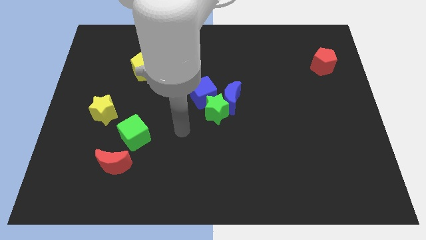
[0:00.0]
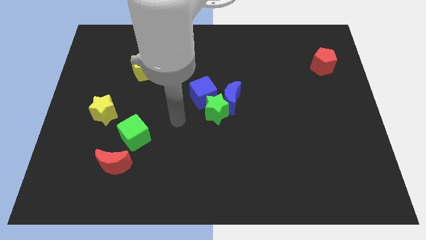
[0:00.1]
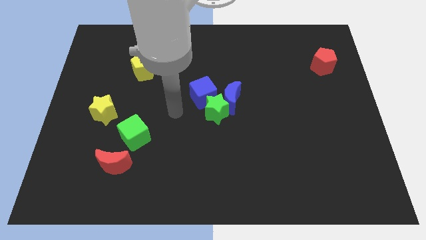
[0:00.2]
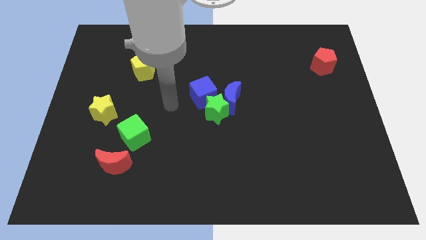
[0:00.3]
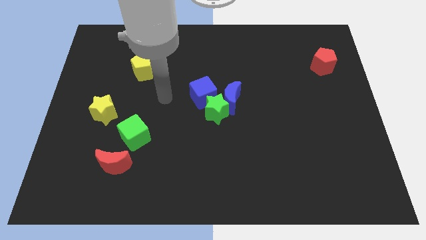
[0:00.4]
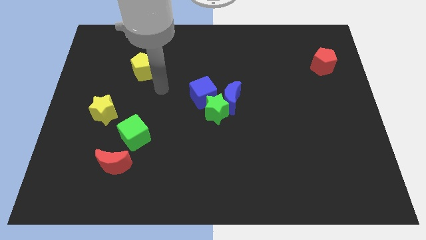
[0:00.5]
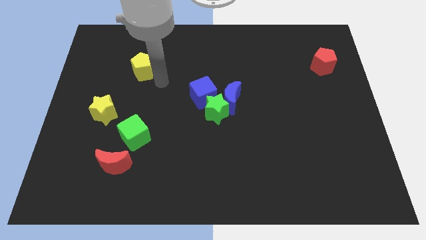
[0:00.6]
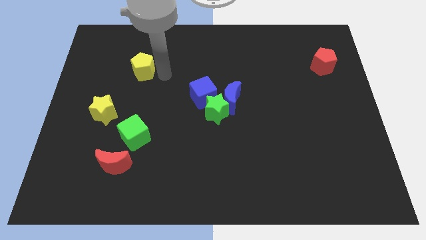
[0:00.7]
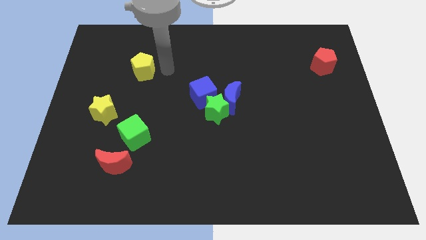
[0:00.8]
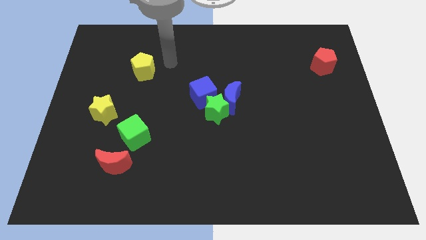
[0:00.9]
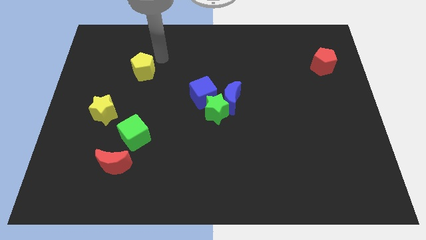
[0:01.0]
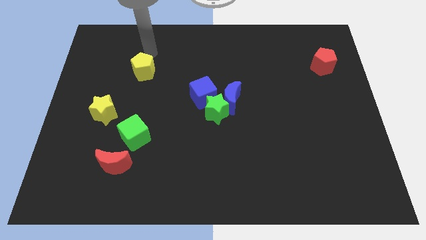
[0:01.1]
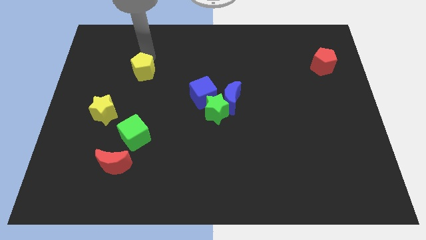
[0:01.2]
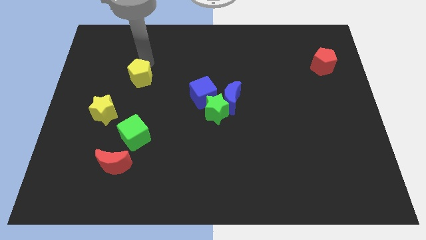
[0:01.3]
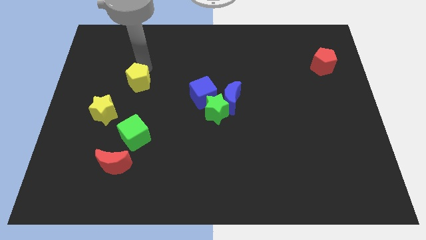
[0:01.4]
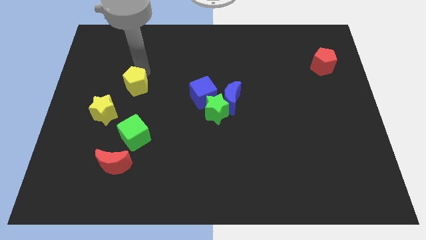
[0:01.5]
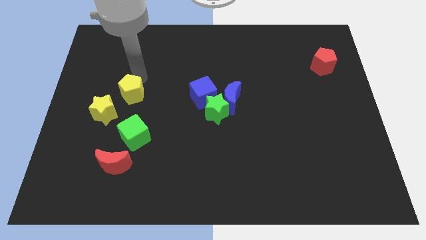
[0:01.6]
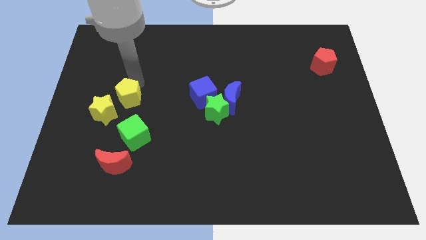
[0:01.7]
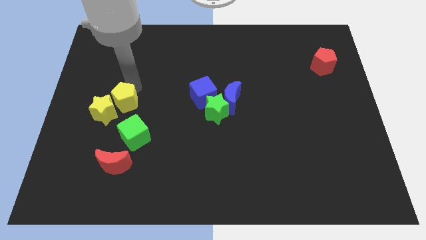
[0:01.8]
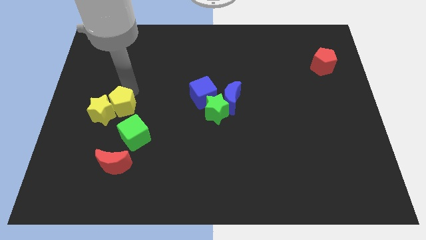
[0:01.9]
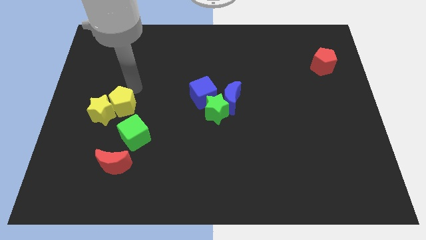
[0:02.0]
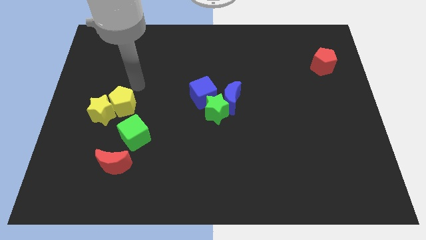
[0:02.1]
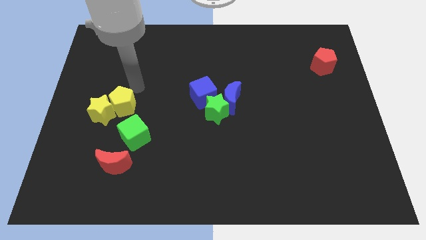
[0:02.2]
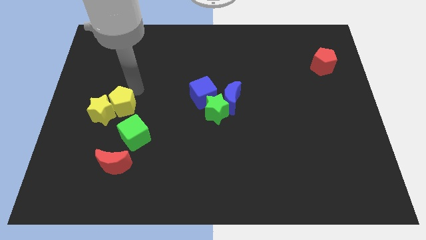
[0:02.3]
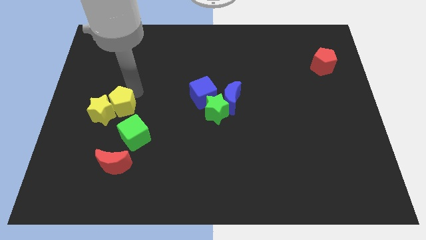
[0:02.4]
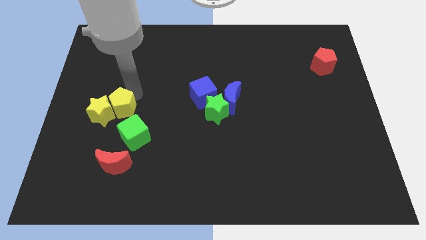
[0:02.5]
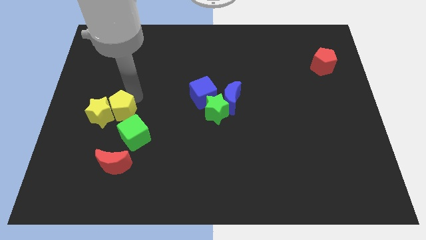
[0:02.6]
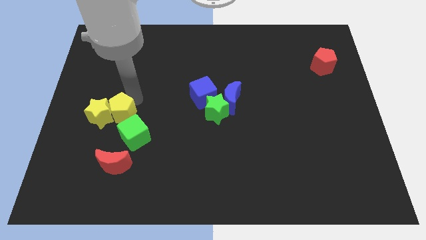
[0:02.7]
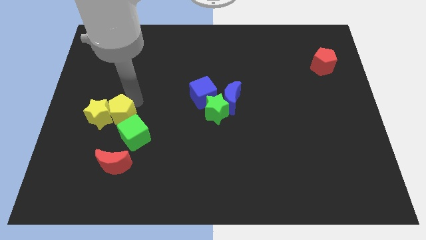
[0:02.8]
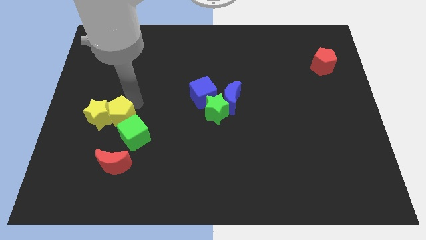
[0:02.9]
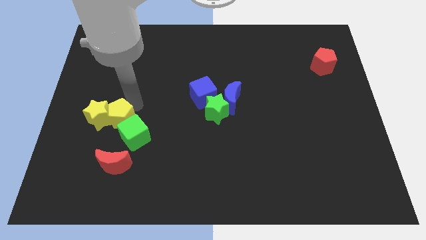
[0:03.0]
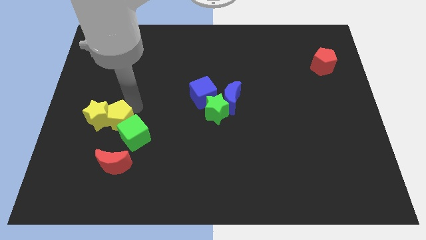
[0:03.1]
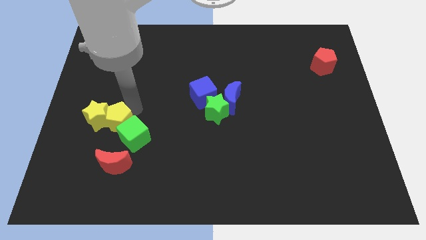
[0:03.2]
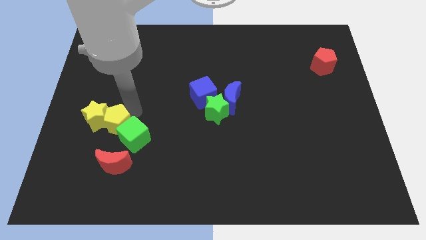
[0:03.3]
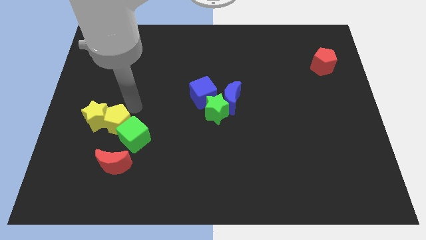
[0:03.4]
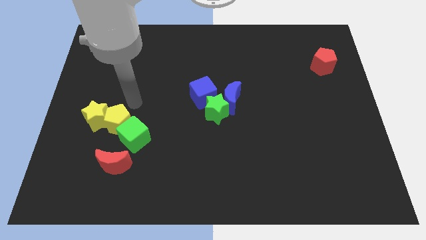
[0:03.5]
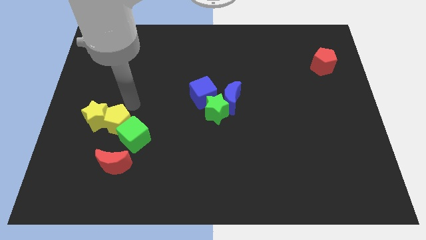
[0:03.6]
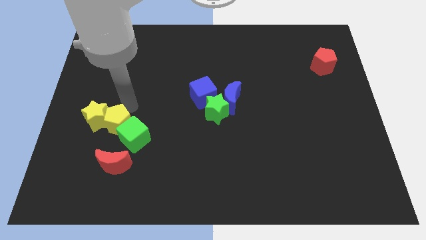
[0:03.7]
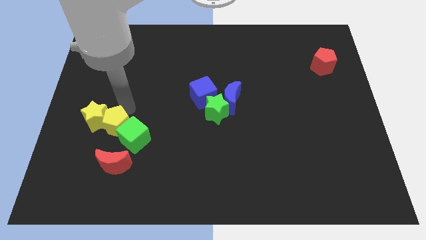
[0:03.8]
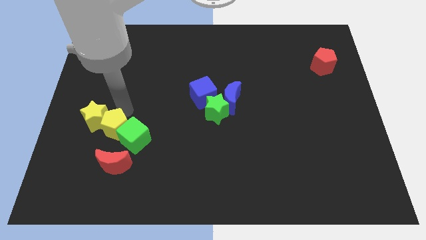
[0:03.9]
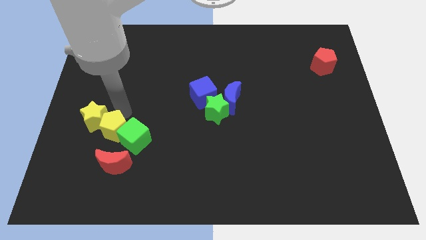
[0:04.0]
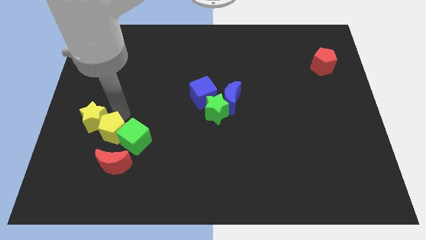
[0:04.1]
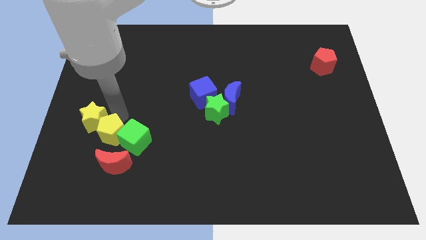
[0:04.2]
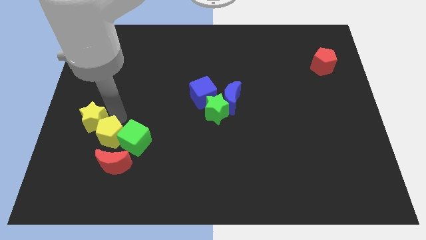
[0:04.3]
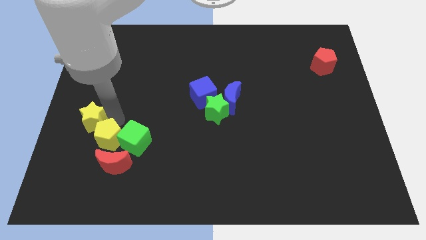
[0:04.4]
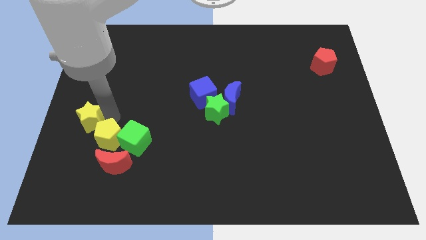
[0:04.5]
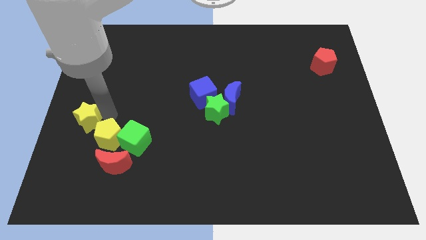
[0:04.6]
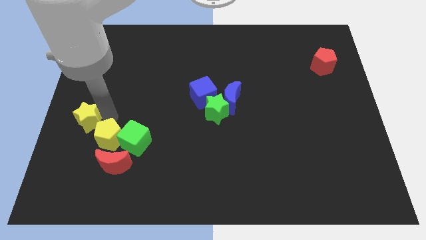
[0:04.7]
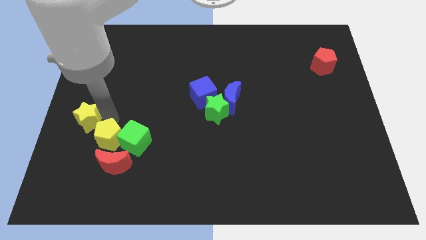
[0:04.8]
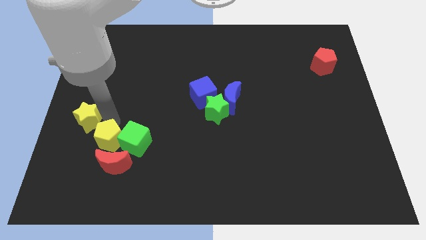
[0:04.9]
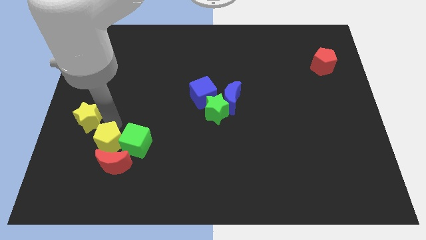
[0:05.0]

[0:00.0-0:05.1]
push the yellow pentagon towards the red moon

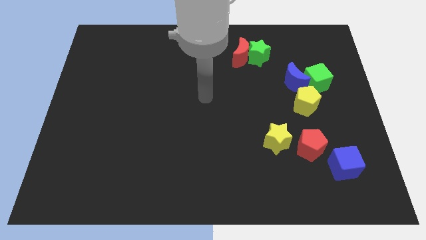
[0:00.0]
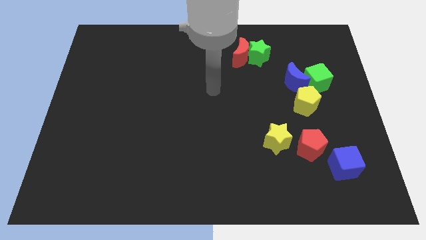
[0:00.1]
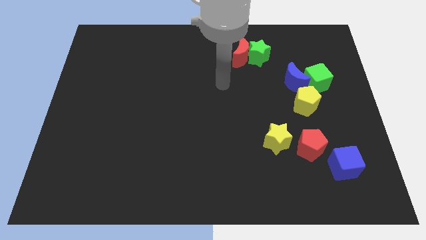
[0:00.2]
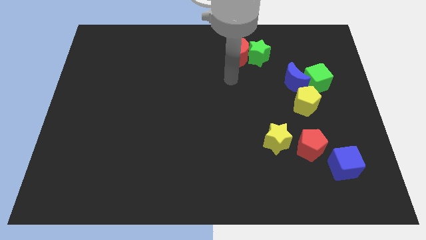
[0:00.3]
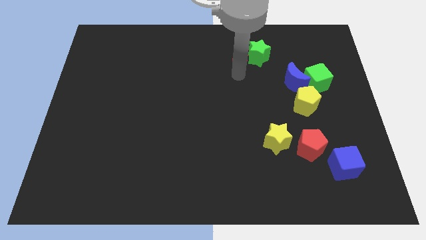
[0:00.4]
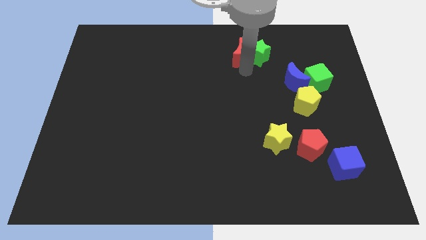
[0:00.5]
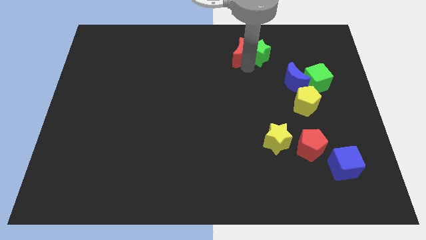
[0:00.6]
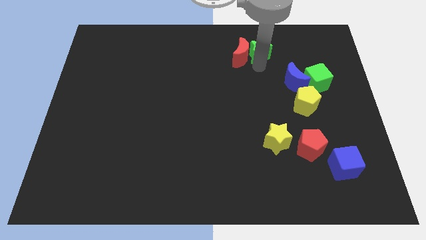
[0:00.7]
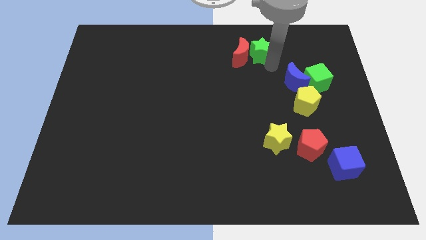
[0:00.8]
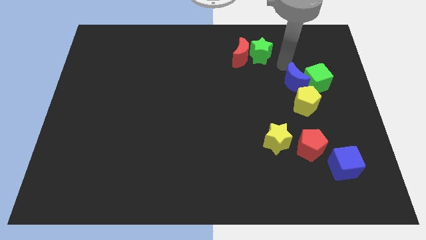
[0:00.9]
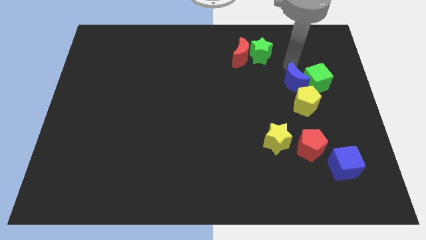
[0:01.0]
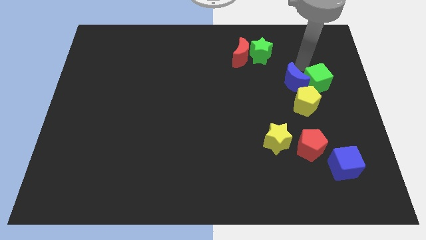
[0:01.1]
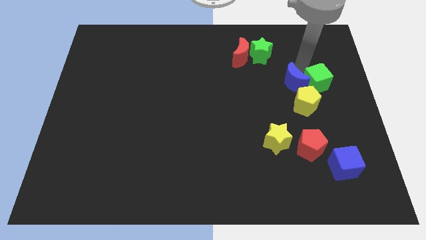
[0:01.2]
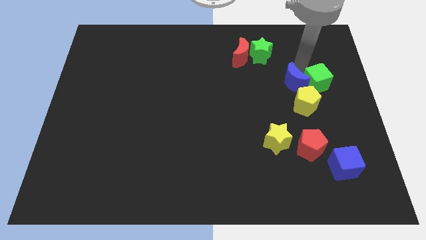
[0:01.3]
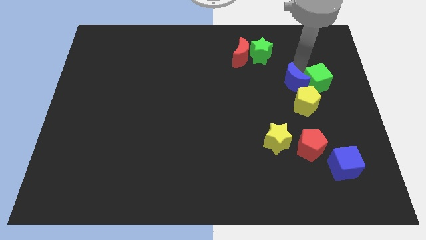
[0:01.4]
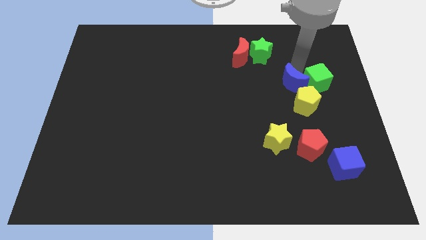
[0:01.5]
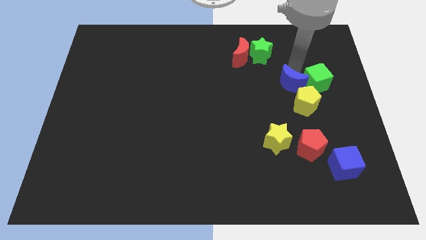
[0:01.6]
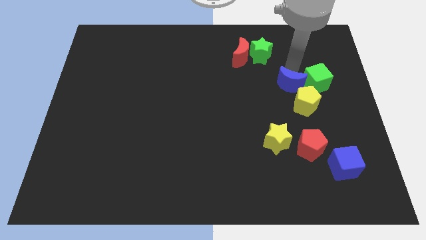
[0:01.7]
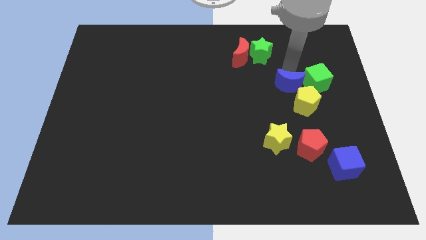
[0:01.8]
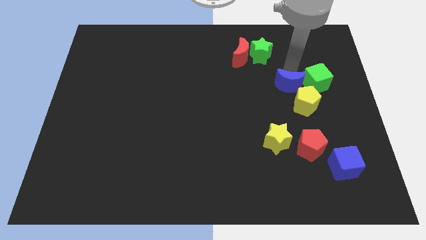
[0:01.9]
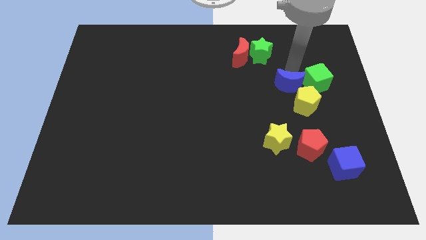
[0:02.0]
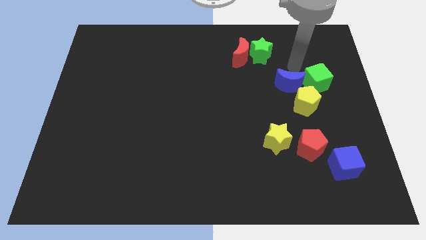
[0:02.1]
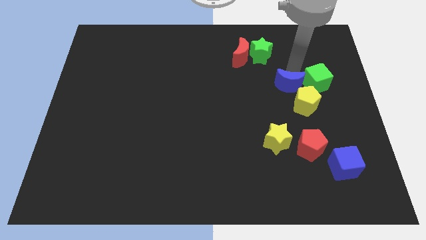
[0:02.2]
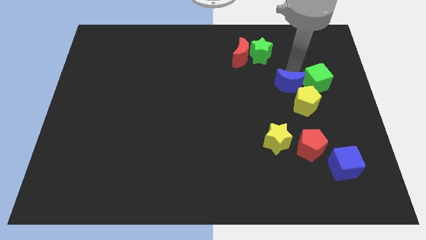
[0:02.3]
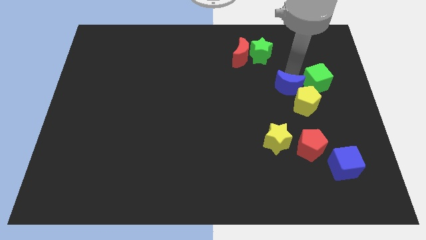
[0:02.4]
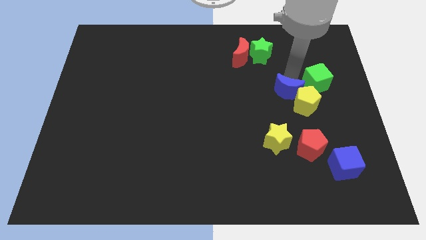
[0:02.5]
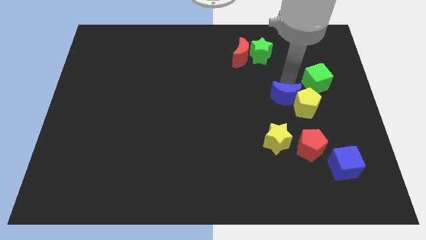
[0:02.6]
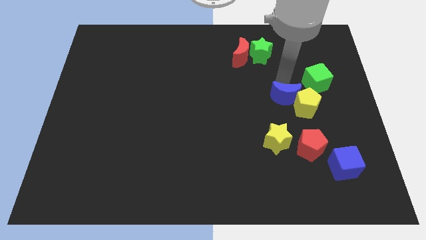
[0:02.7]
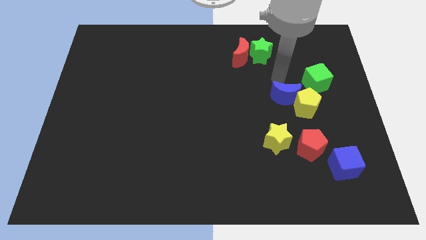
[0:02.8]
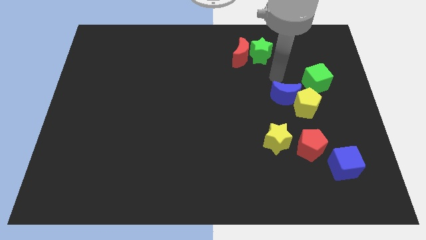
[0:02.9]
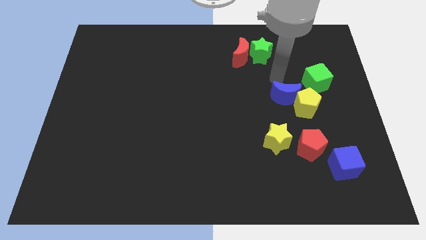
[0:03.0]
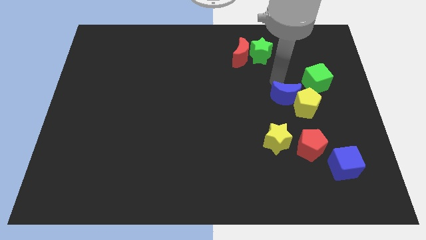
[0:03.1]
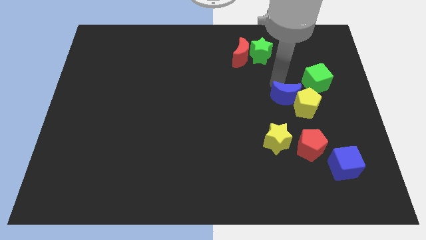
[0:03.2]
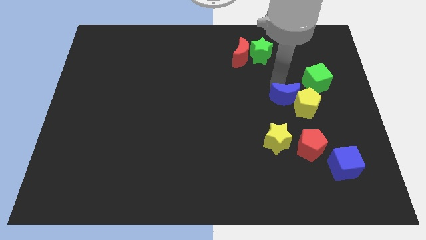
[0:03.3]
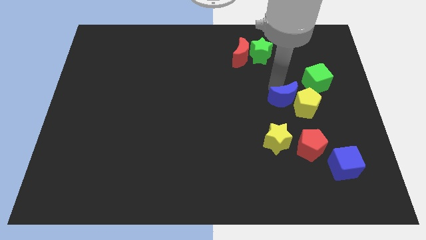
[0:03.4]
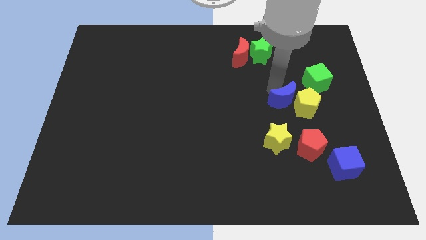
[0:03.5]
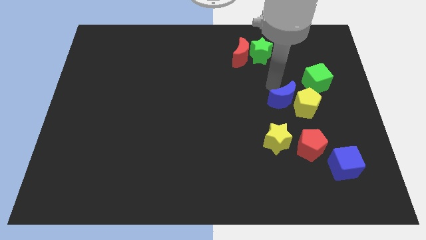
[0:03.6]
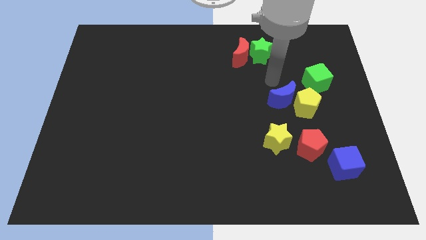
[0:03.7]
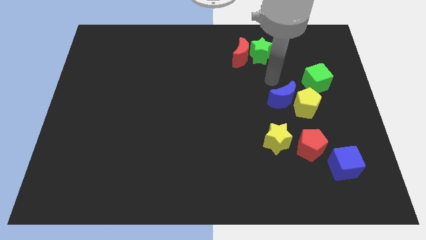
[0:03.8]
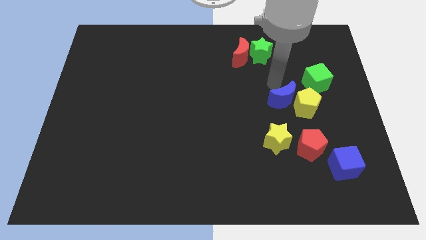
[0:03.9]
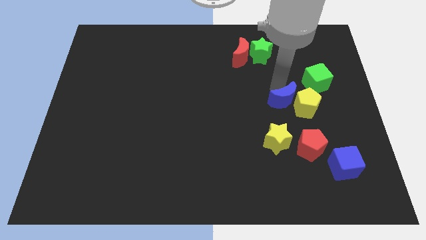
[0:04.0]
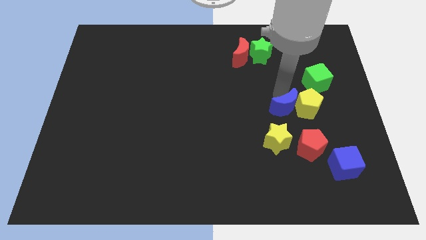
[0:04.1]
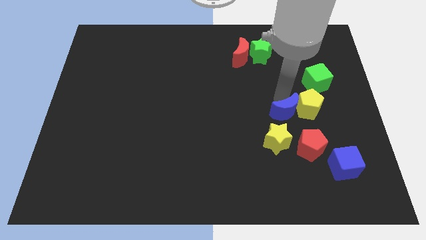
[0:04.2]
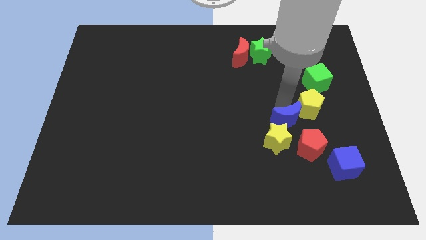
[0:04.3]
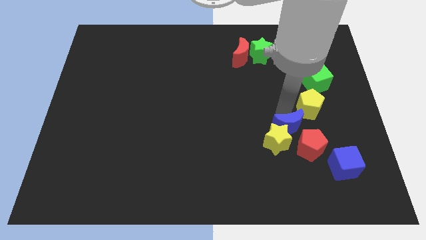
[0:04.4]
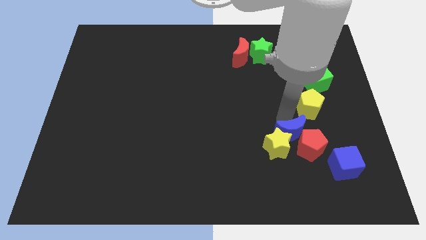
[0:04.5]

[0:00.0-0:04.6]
move the blue moon to the red pentagon
